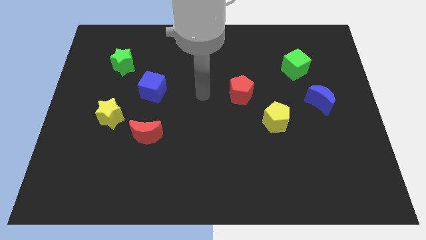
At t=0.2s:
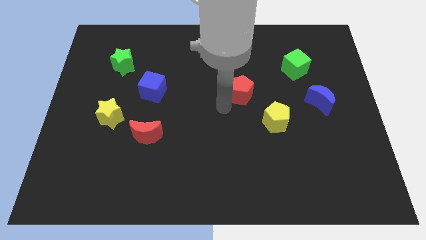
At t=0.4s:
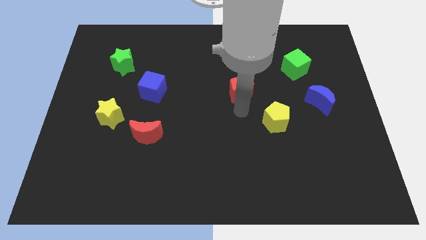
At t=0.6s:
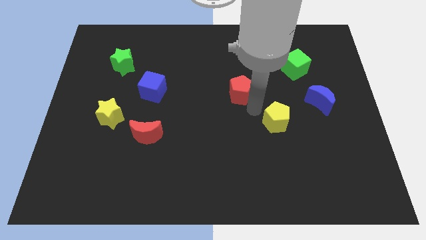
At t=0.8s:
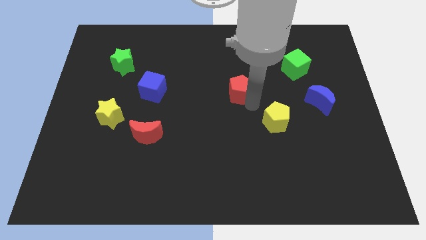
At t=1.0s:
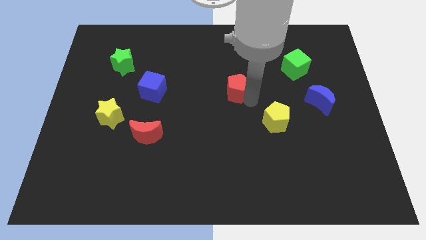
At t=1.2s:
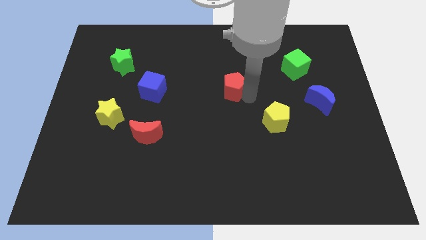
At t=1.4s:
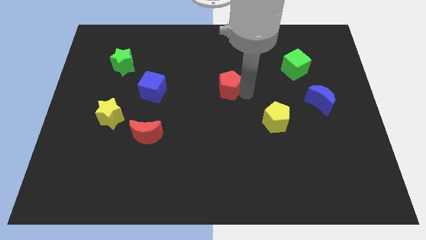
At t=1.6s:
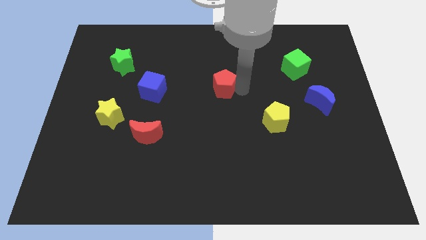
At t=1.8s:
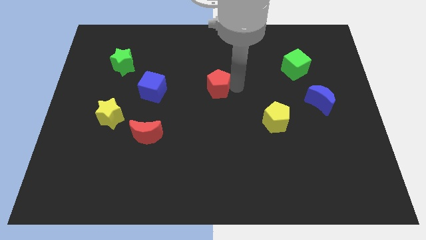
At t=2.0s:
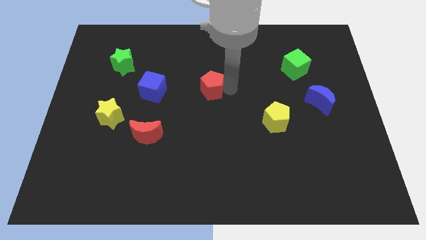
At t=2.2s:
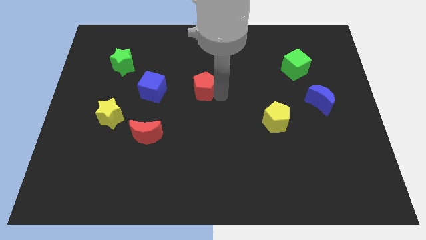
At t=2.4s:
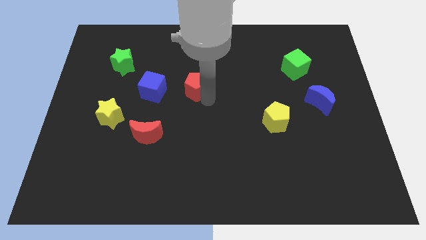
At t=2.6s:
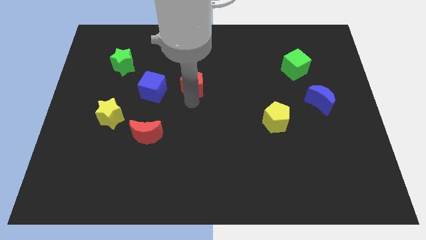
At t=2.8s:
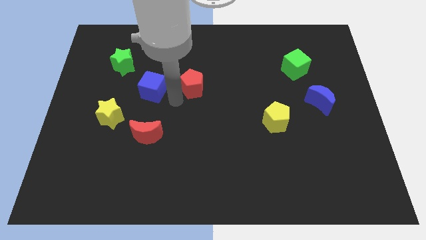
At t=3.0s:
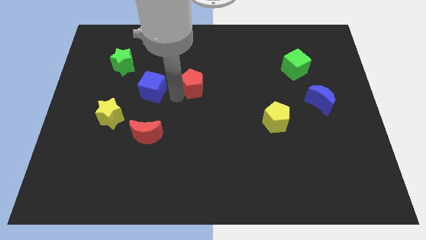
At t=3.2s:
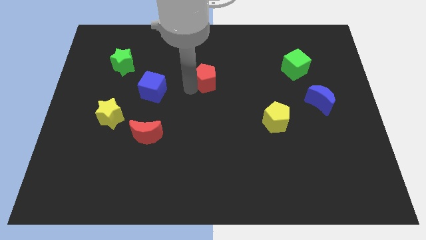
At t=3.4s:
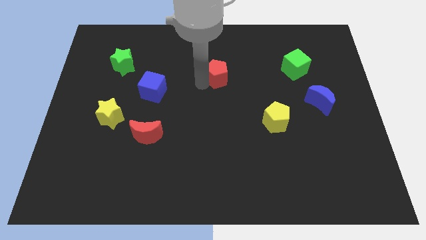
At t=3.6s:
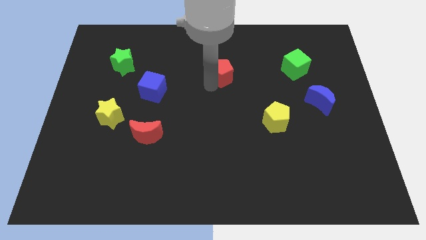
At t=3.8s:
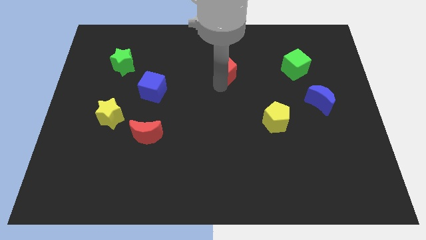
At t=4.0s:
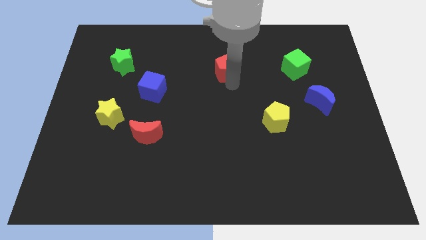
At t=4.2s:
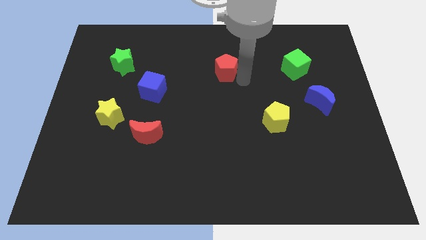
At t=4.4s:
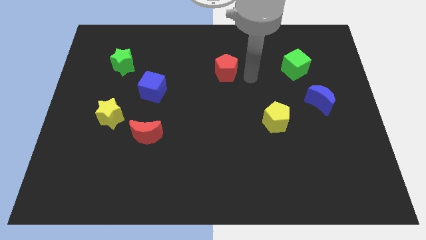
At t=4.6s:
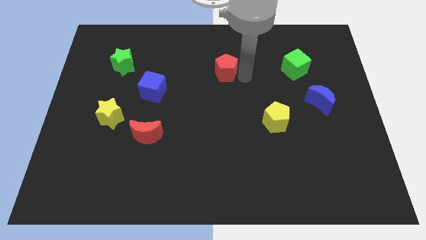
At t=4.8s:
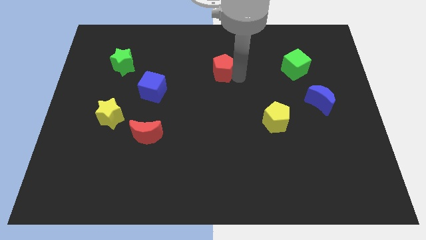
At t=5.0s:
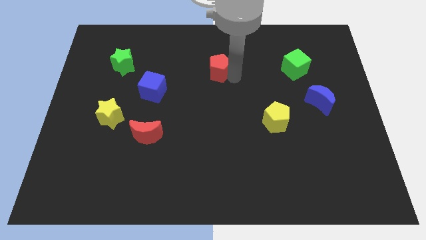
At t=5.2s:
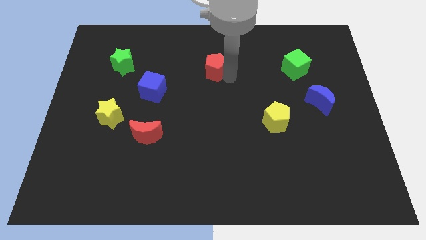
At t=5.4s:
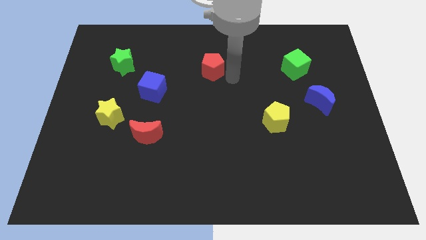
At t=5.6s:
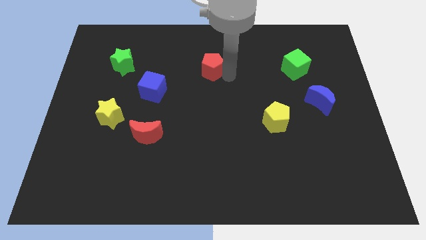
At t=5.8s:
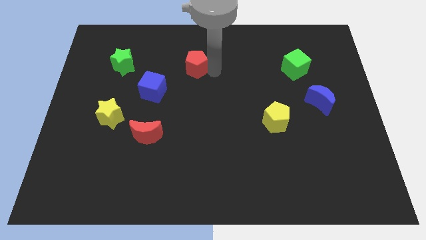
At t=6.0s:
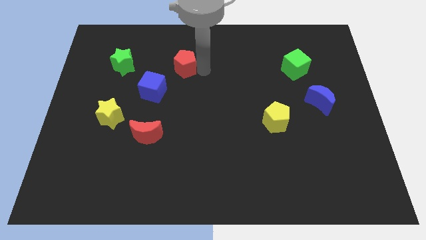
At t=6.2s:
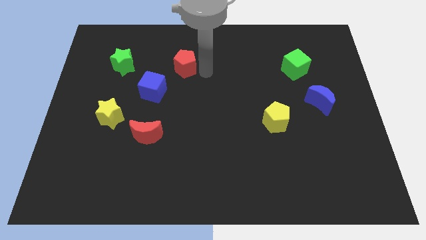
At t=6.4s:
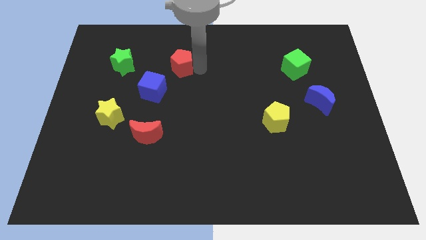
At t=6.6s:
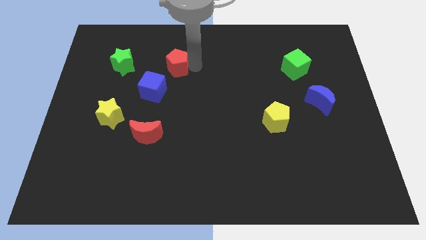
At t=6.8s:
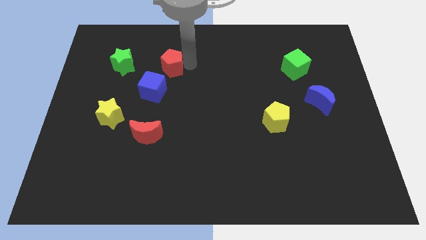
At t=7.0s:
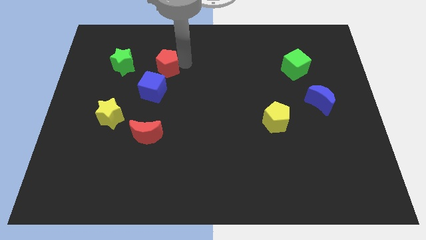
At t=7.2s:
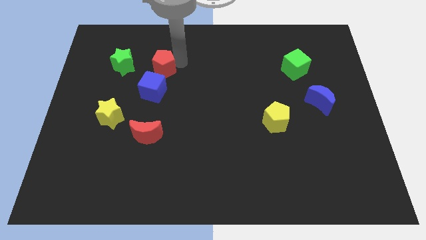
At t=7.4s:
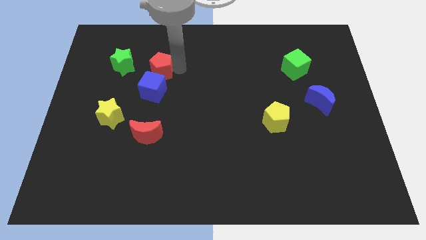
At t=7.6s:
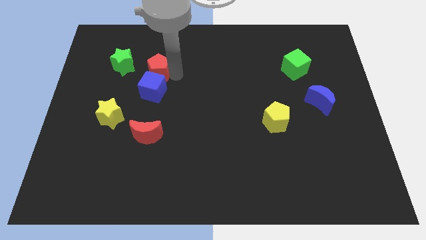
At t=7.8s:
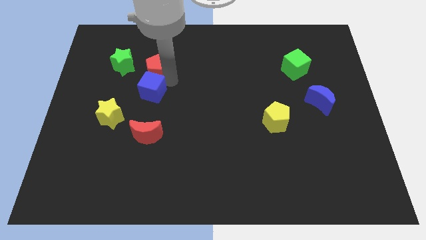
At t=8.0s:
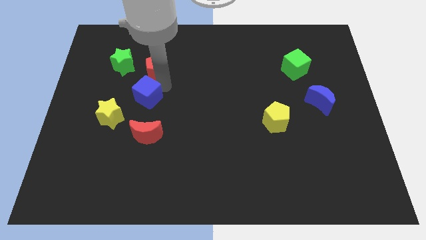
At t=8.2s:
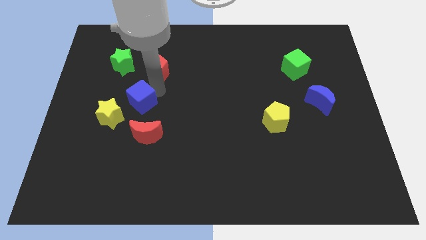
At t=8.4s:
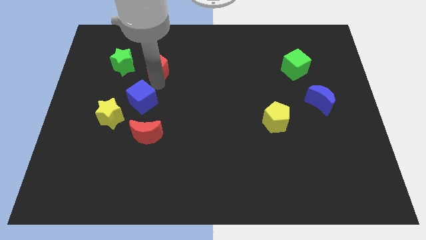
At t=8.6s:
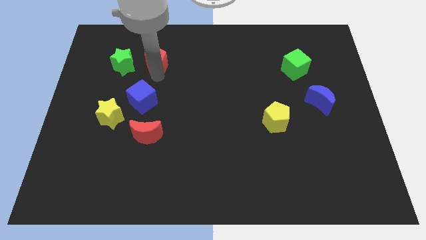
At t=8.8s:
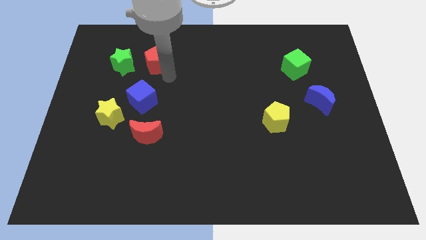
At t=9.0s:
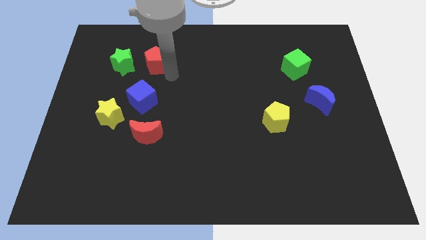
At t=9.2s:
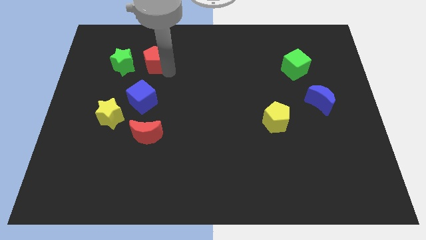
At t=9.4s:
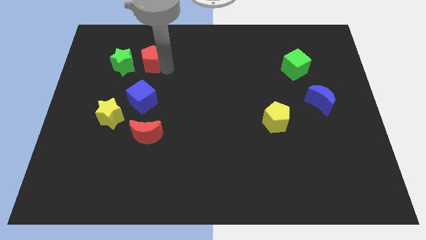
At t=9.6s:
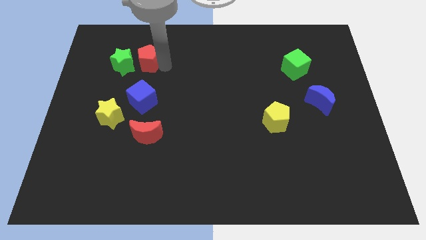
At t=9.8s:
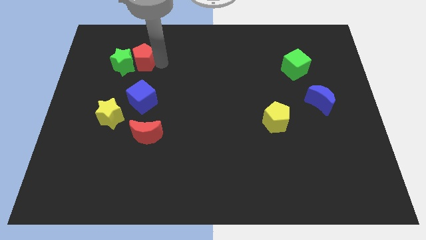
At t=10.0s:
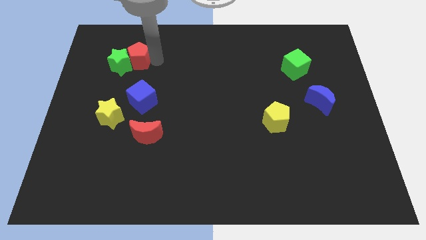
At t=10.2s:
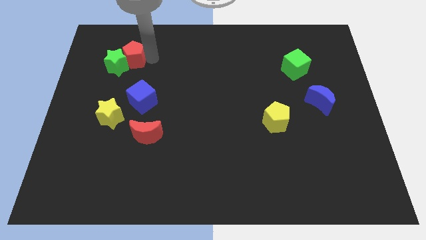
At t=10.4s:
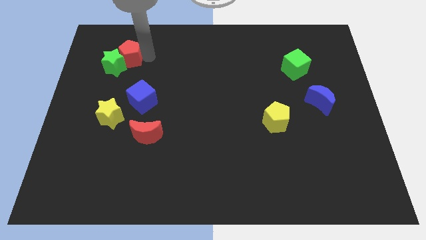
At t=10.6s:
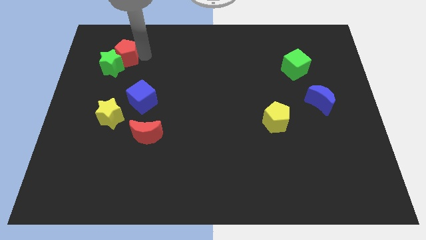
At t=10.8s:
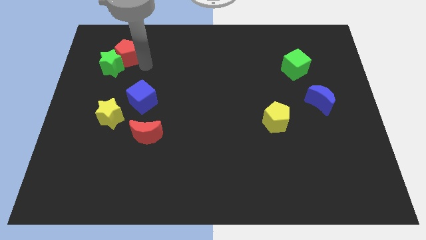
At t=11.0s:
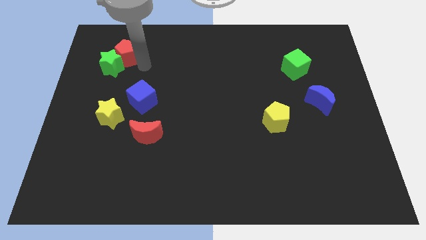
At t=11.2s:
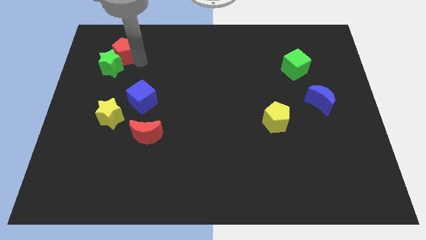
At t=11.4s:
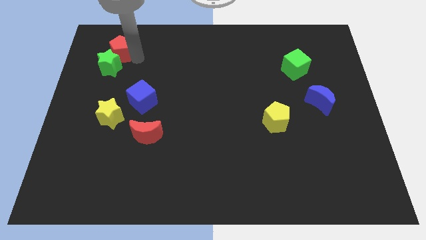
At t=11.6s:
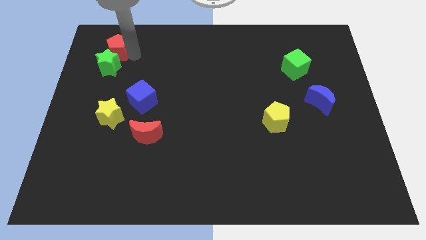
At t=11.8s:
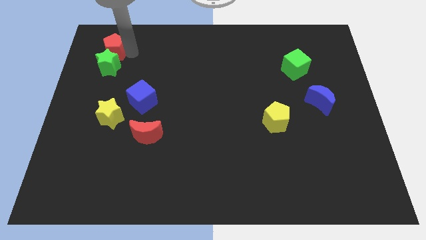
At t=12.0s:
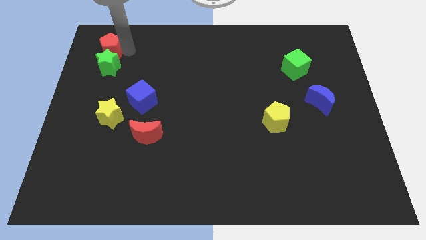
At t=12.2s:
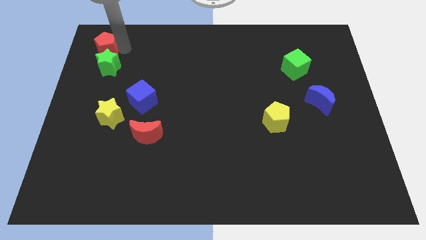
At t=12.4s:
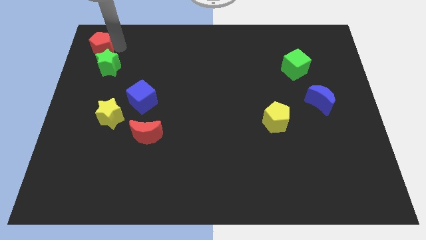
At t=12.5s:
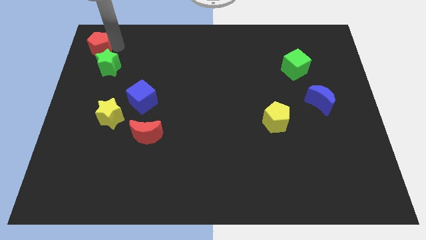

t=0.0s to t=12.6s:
slide the red pentagon to the top left
